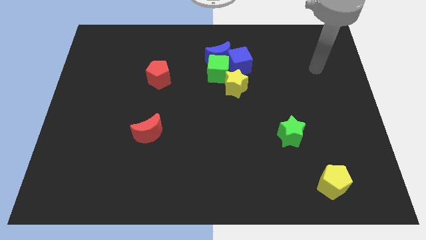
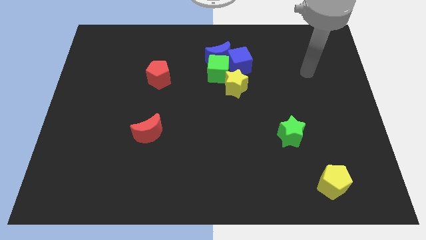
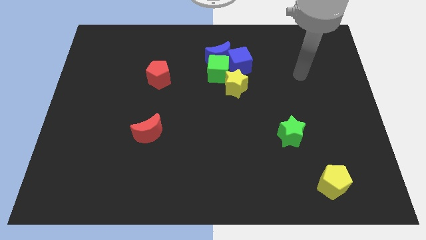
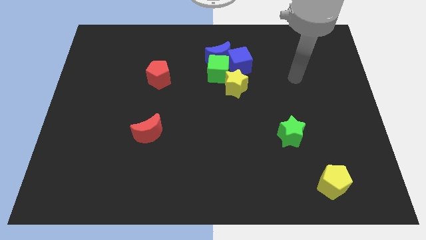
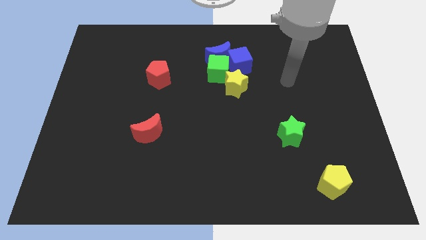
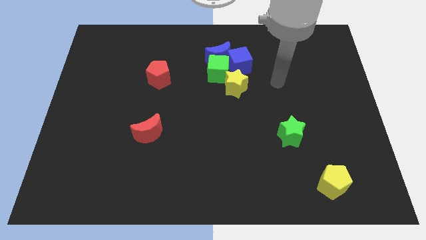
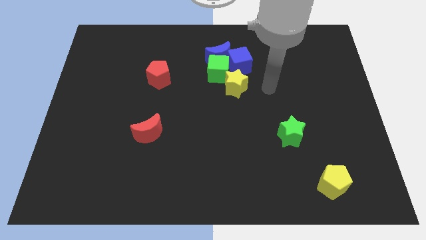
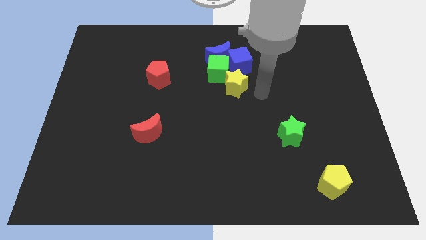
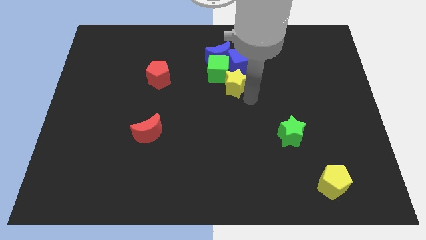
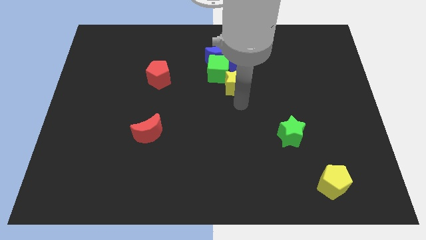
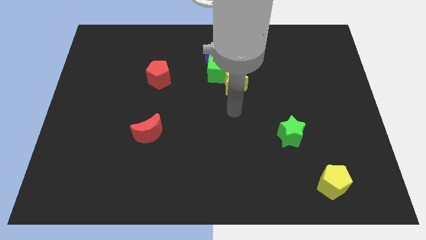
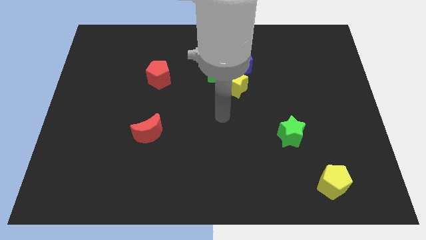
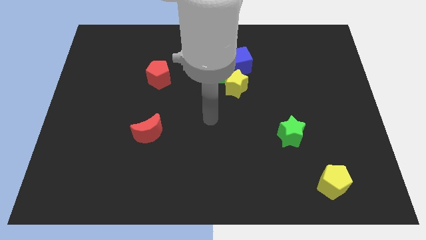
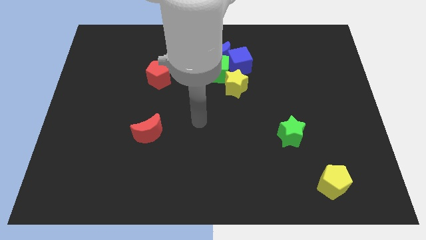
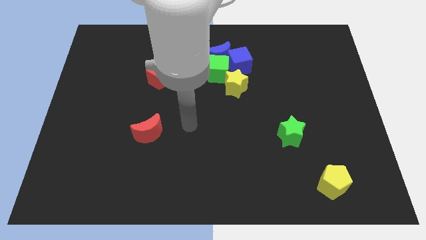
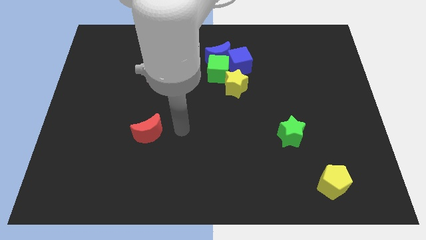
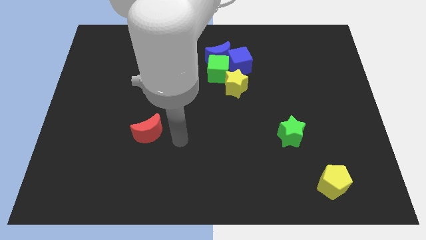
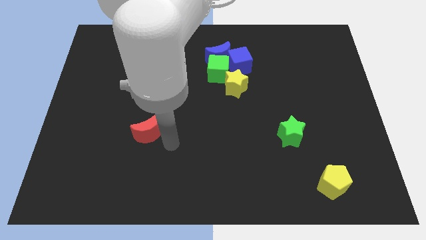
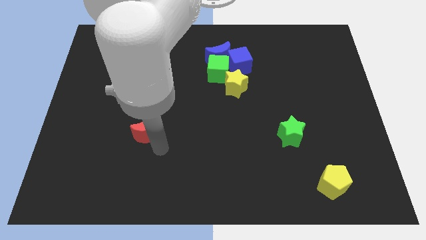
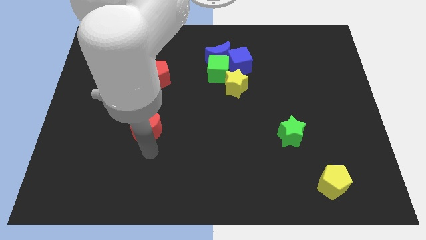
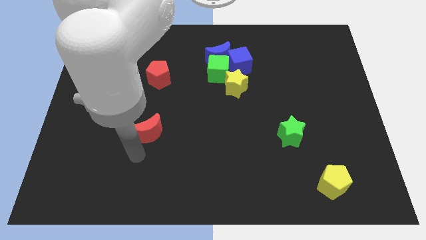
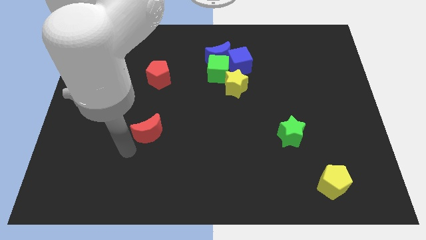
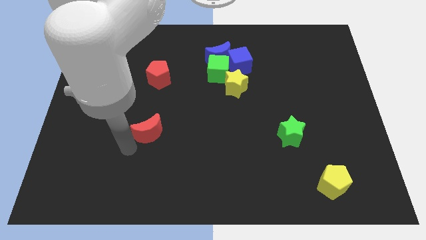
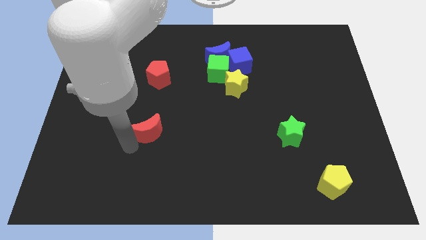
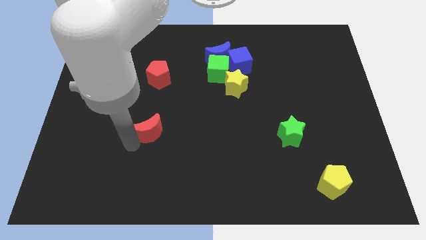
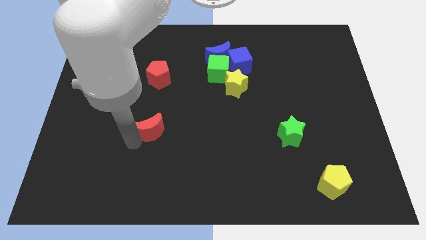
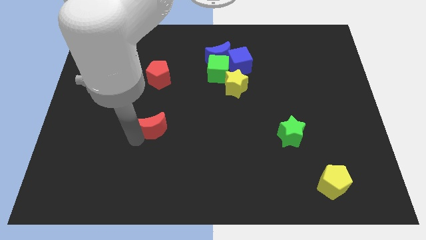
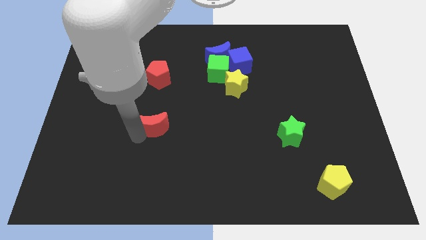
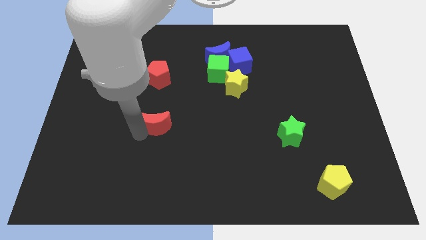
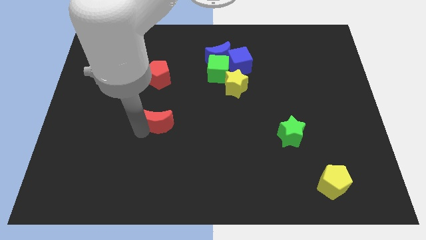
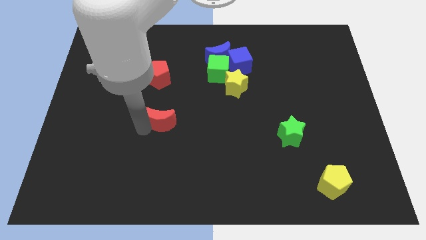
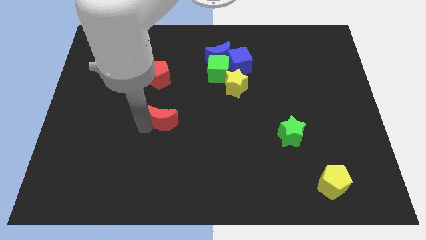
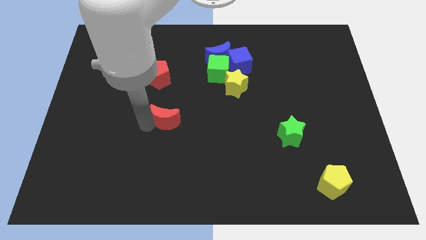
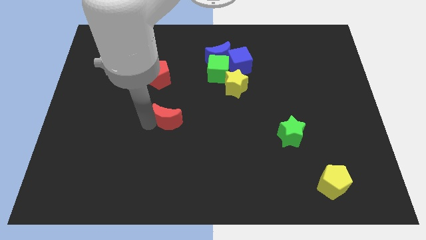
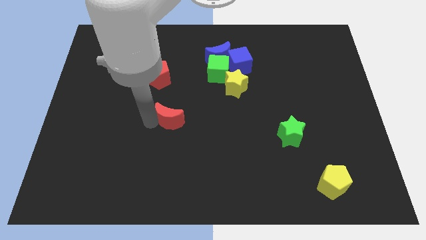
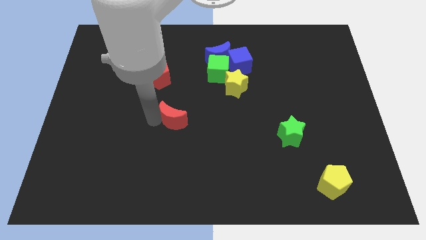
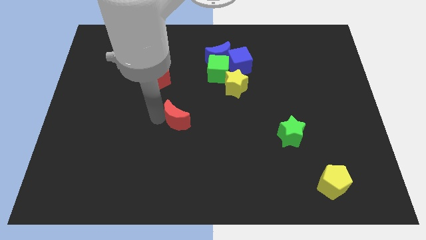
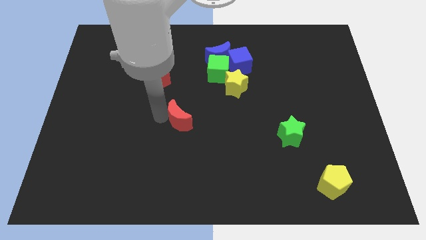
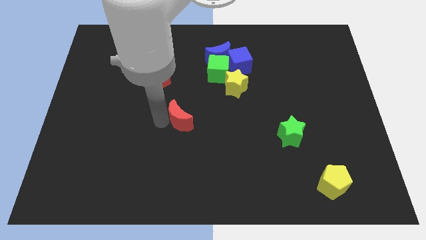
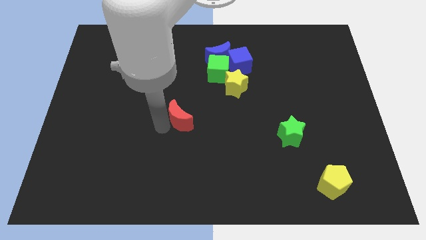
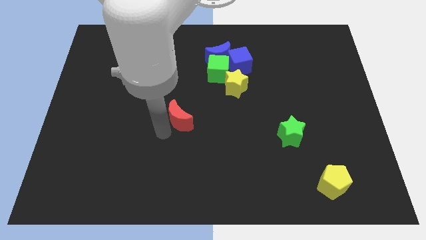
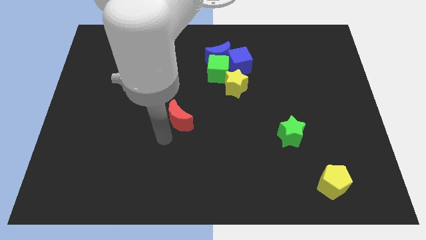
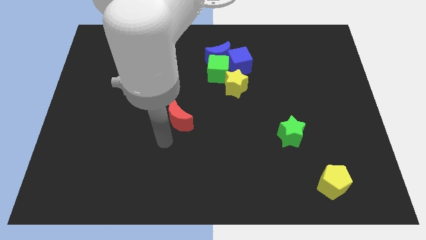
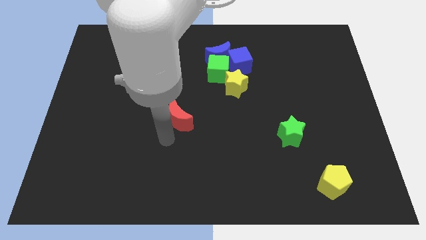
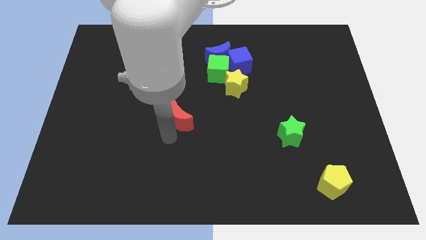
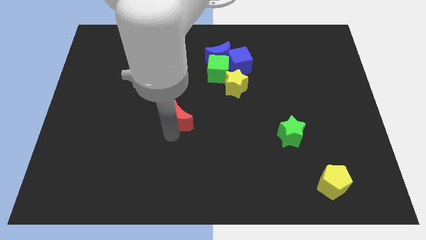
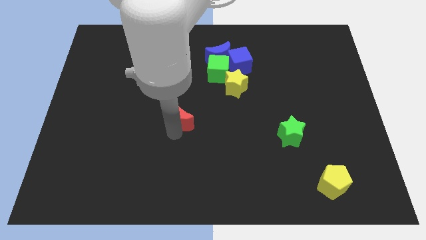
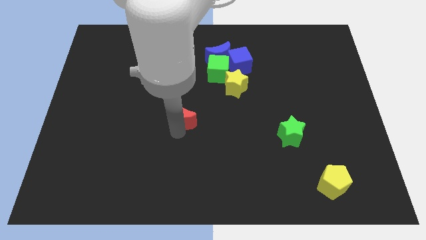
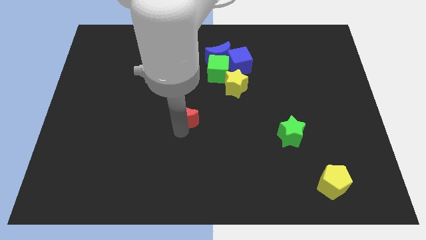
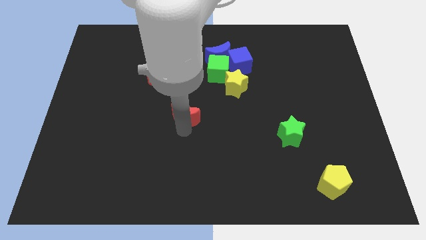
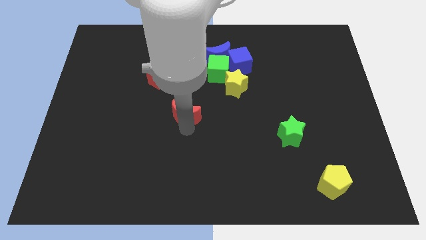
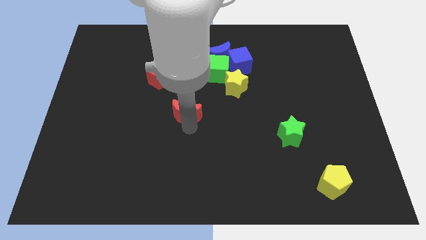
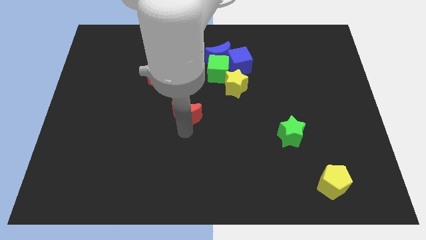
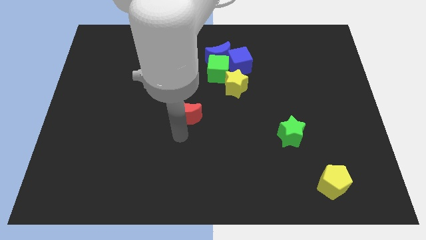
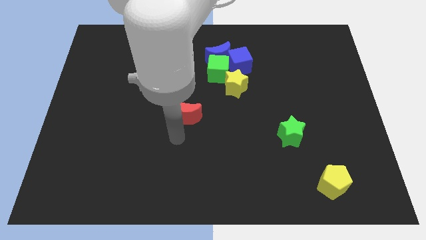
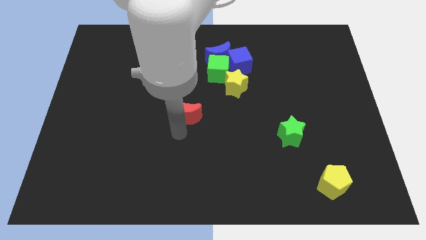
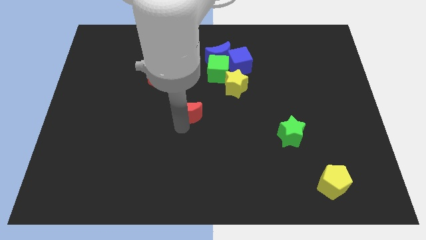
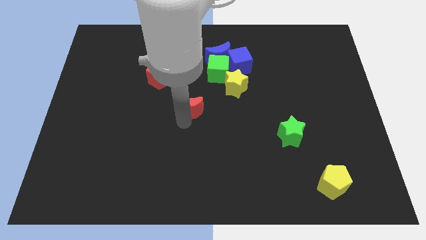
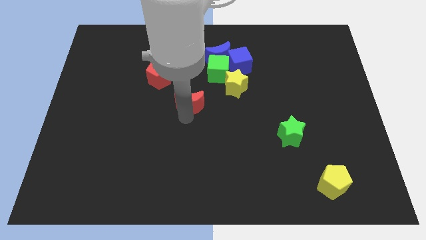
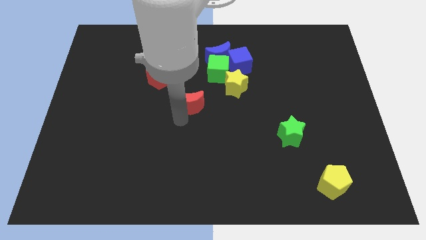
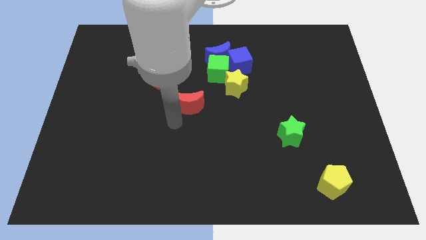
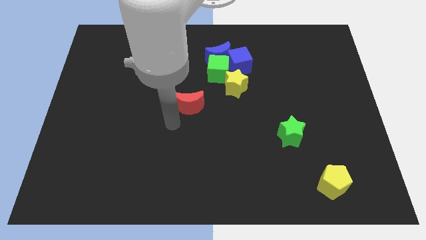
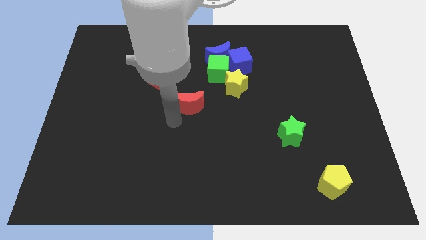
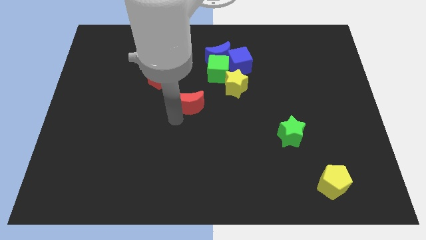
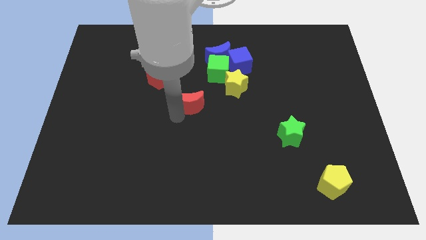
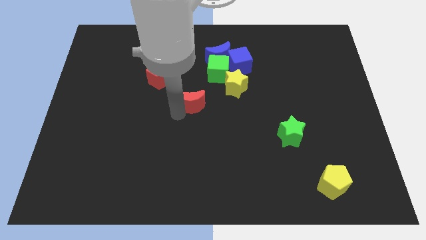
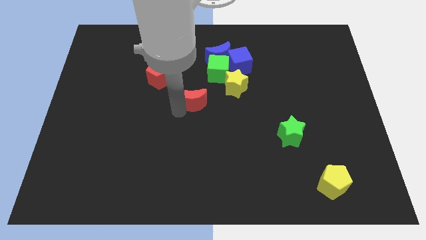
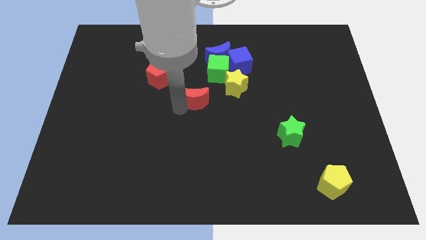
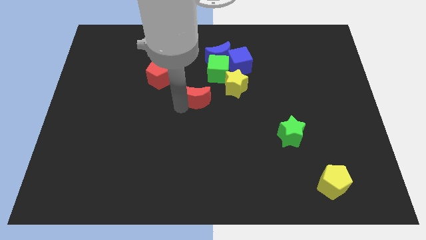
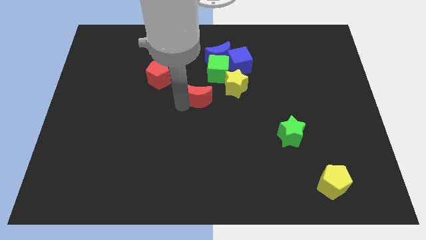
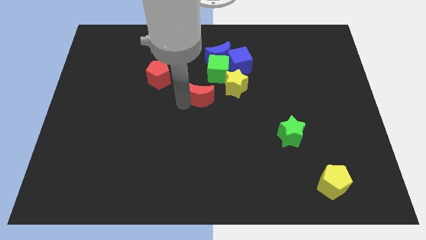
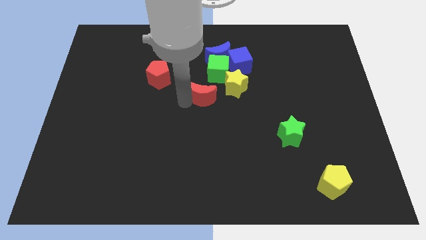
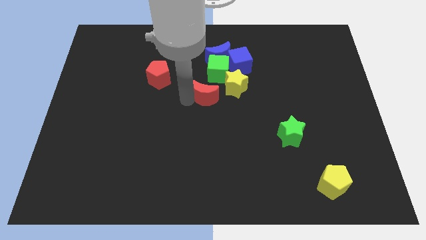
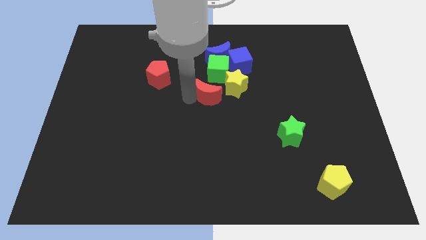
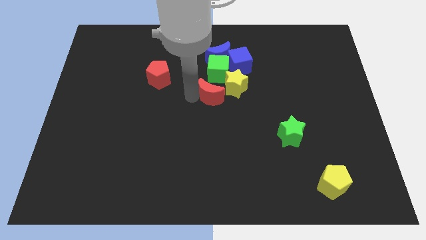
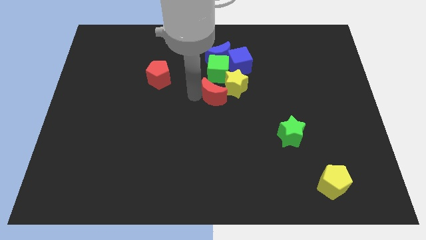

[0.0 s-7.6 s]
slide the red moon to the bottom left of the blue cube

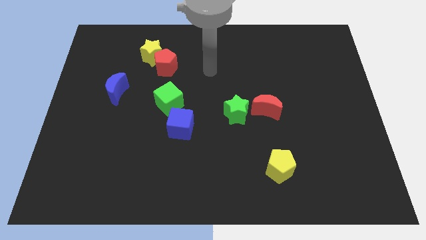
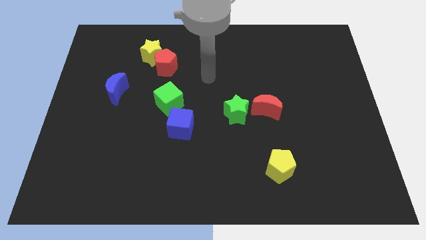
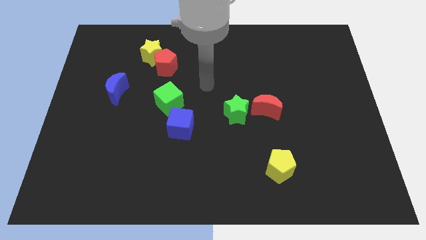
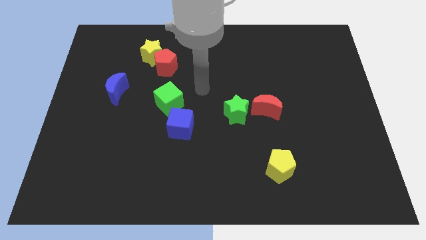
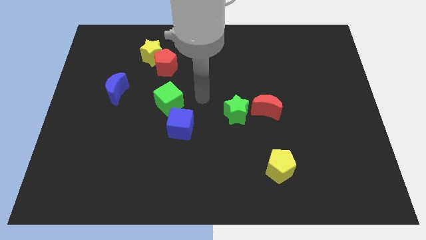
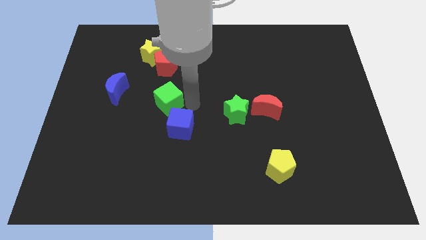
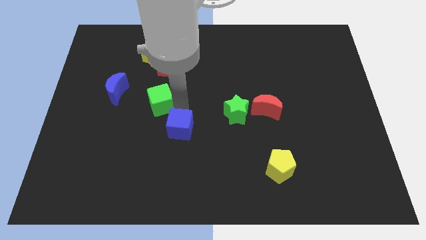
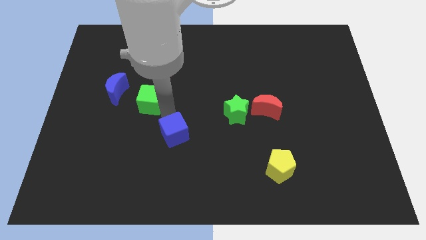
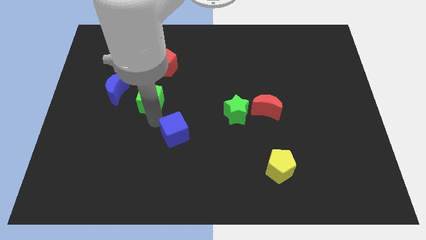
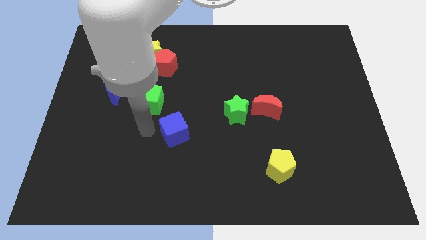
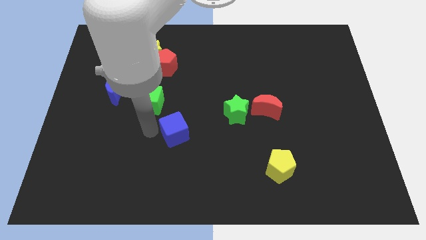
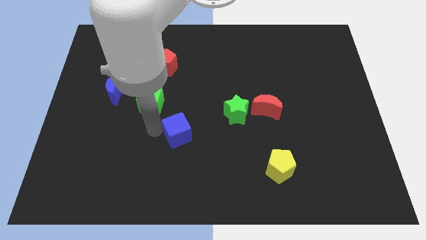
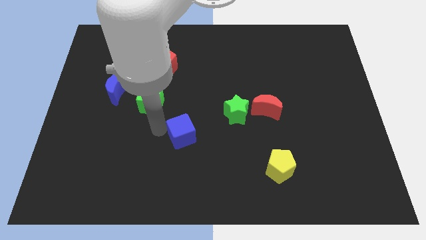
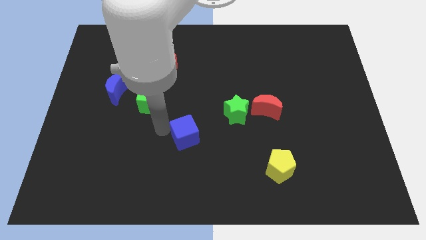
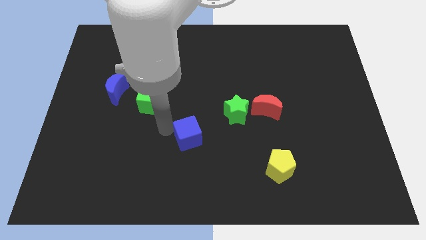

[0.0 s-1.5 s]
put the blue cube to the bottom left of the green star
